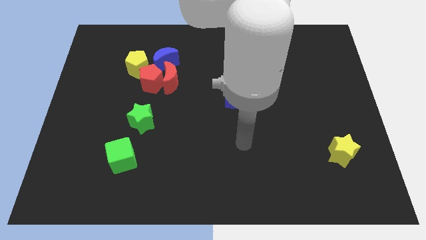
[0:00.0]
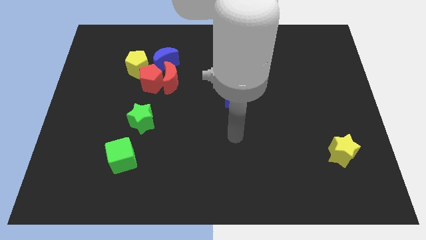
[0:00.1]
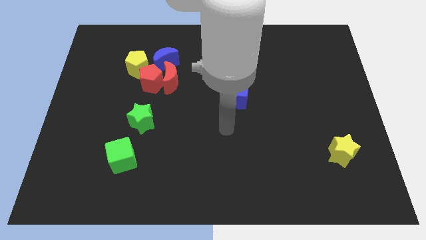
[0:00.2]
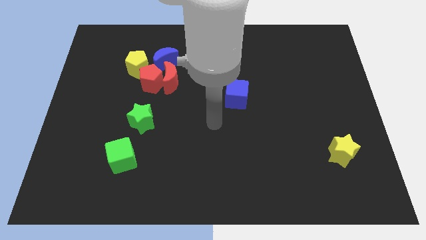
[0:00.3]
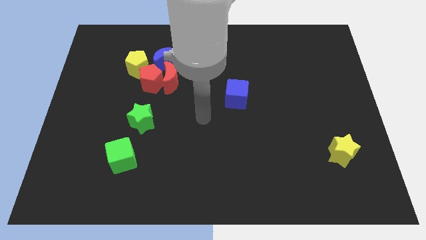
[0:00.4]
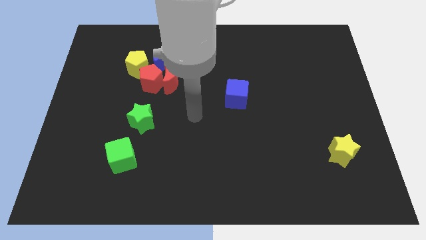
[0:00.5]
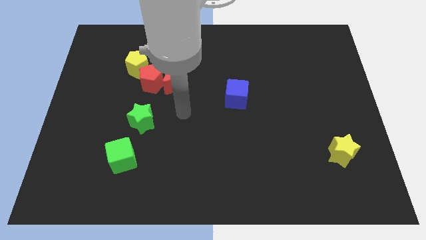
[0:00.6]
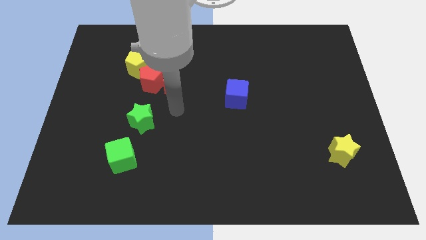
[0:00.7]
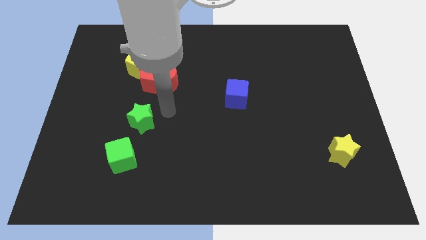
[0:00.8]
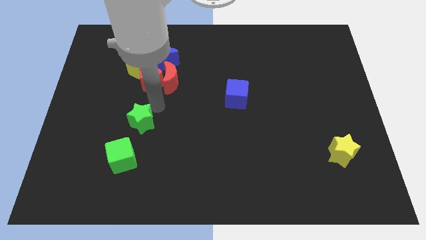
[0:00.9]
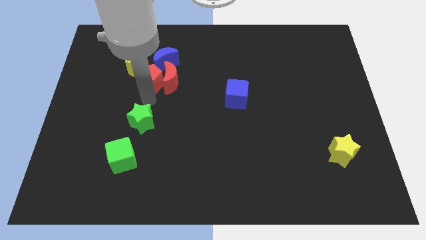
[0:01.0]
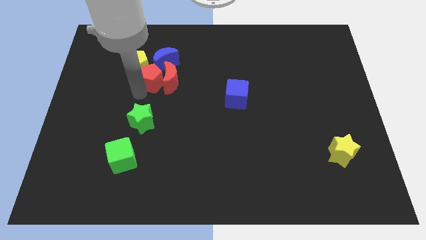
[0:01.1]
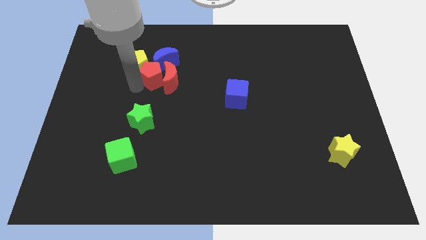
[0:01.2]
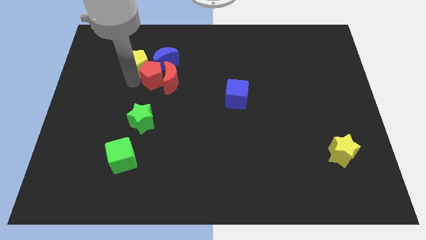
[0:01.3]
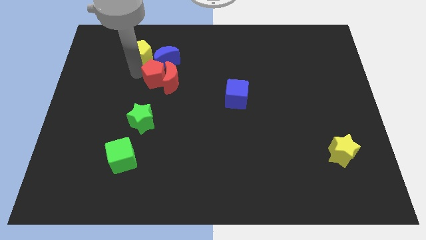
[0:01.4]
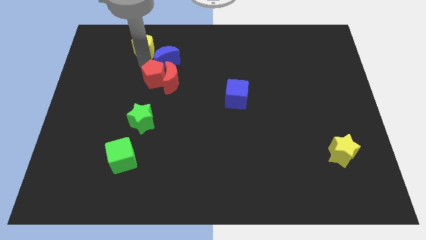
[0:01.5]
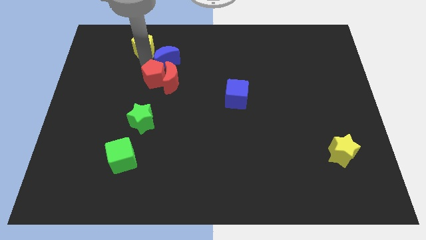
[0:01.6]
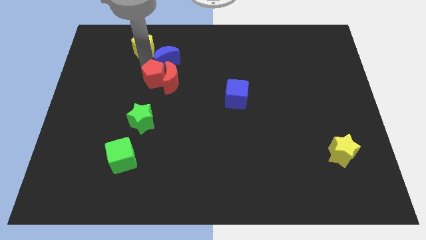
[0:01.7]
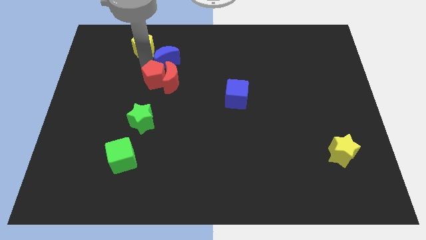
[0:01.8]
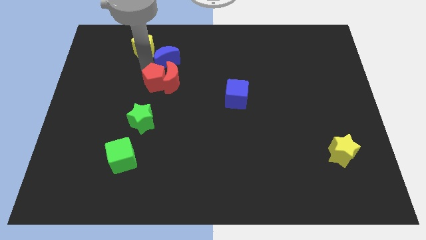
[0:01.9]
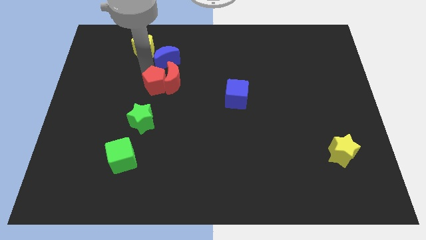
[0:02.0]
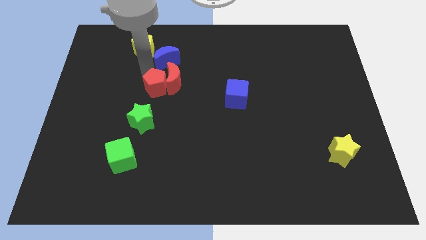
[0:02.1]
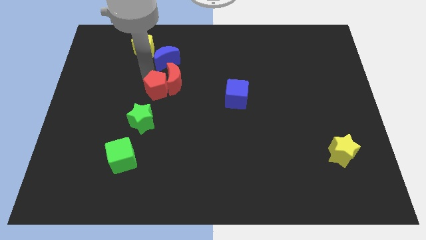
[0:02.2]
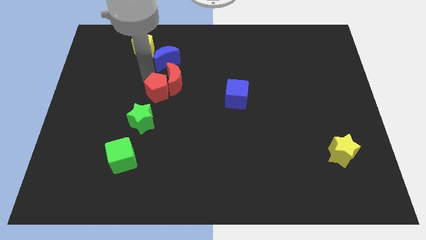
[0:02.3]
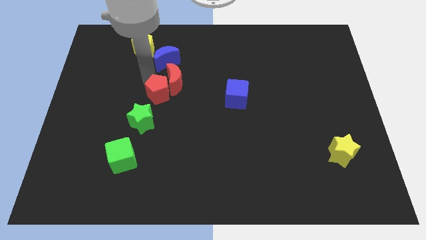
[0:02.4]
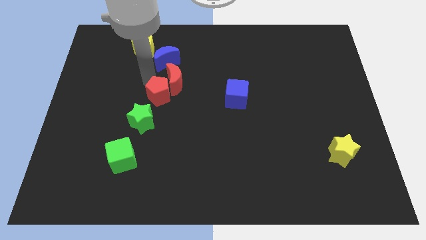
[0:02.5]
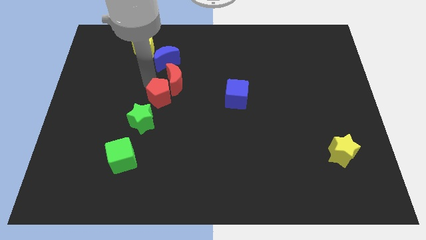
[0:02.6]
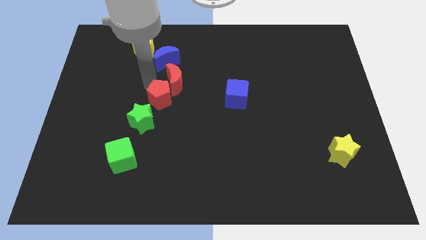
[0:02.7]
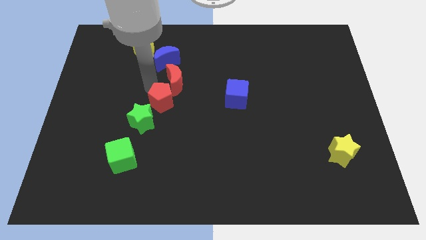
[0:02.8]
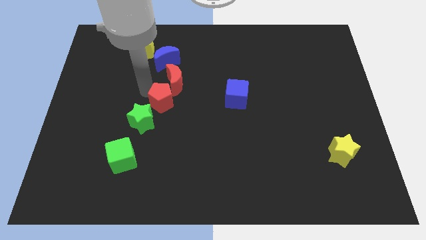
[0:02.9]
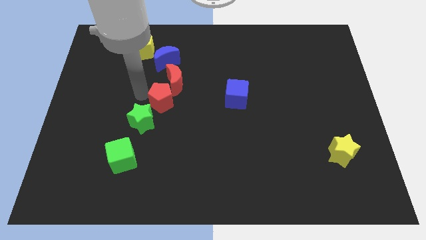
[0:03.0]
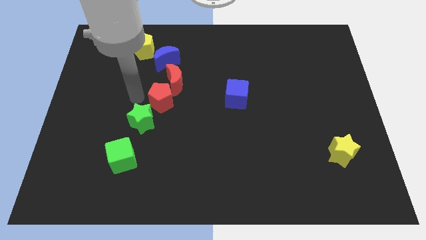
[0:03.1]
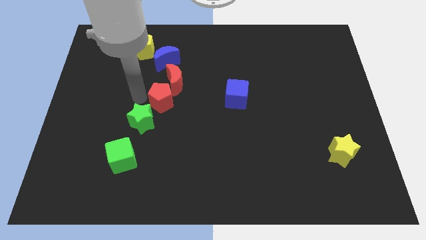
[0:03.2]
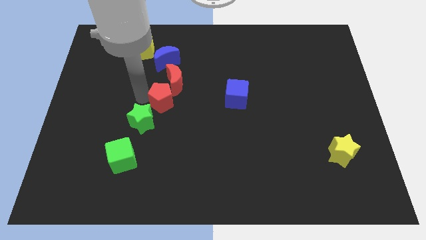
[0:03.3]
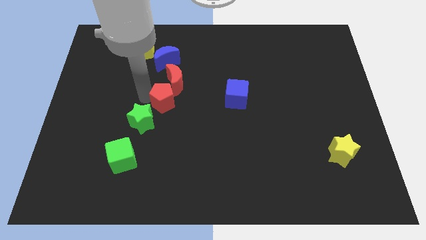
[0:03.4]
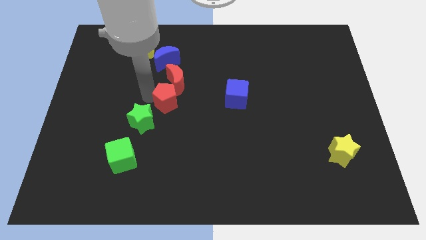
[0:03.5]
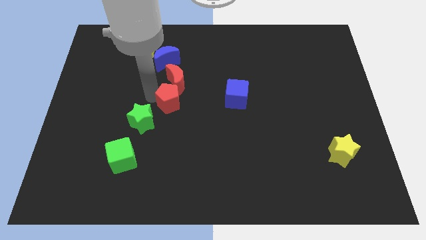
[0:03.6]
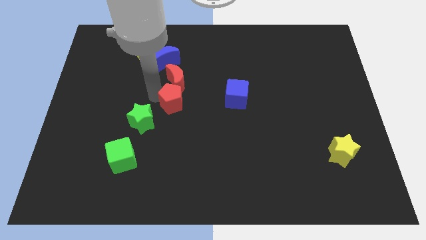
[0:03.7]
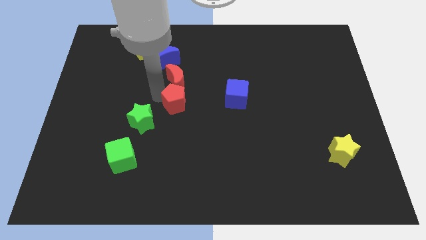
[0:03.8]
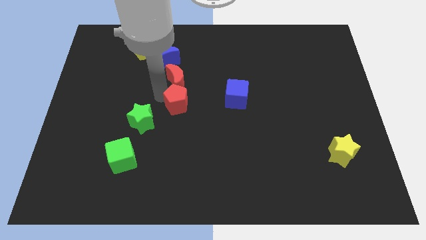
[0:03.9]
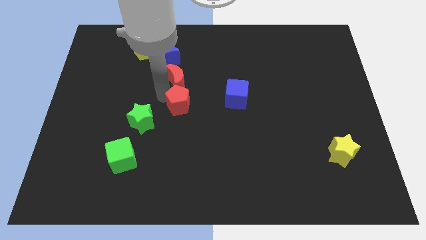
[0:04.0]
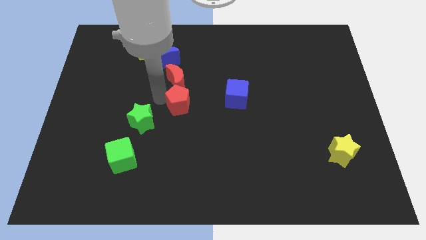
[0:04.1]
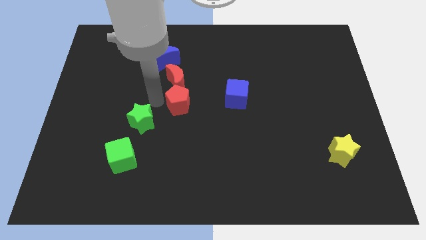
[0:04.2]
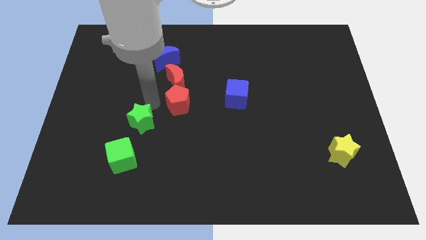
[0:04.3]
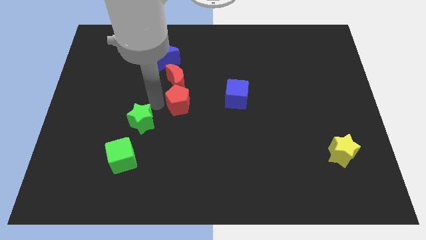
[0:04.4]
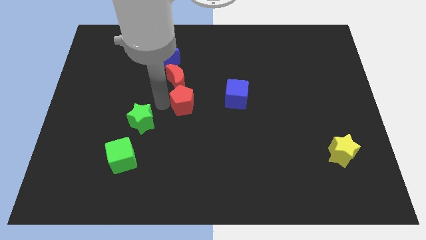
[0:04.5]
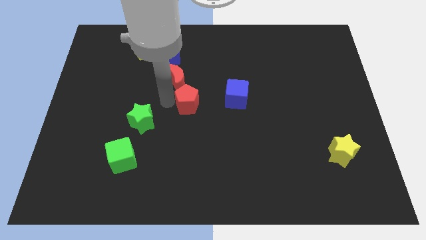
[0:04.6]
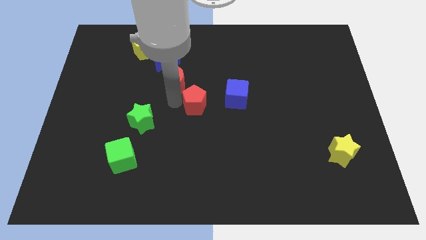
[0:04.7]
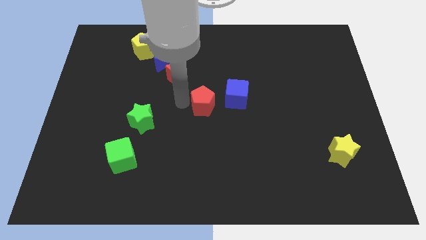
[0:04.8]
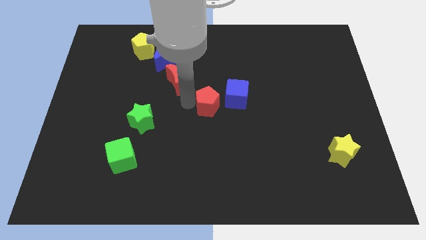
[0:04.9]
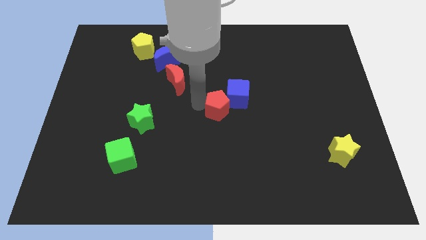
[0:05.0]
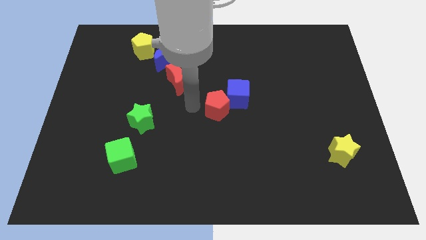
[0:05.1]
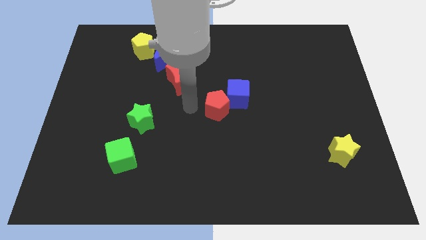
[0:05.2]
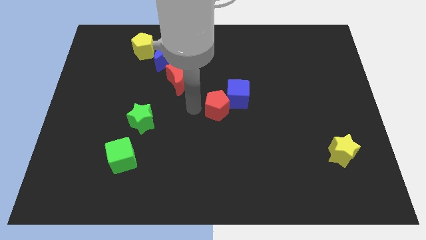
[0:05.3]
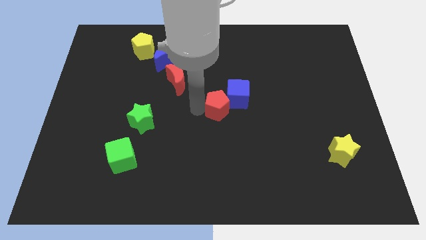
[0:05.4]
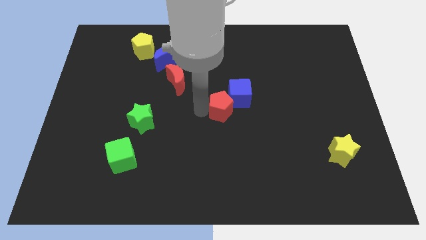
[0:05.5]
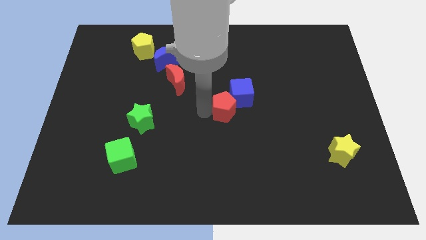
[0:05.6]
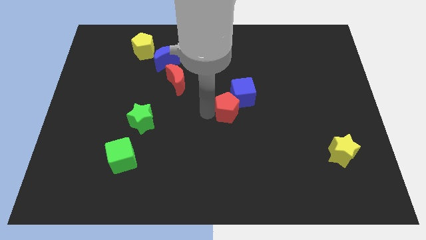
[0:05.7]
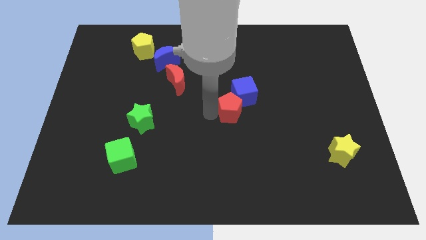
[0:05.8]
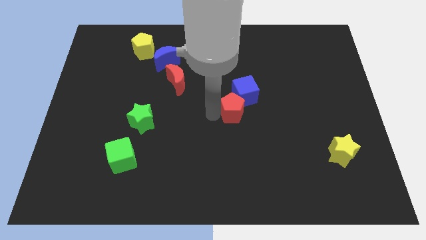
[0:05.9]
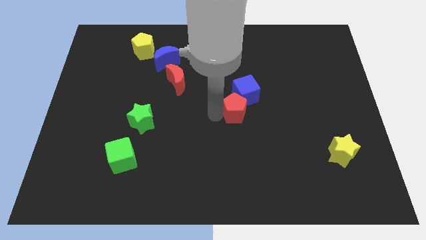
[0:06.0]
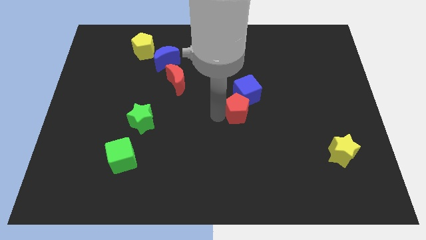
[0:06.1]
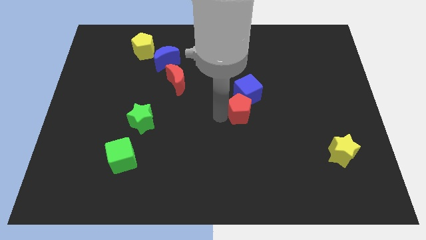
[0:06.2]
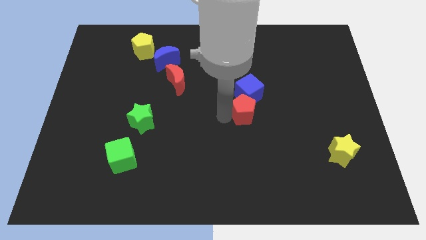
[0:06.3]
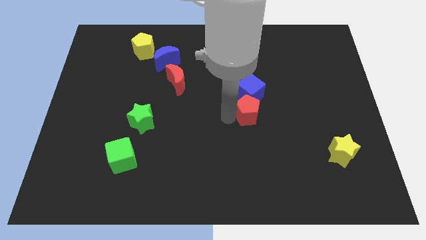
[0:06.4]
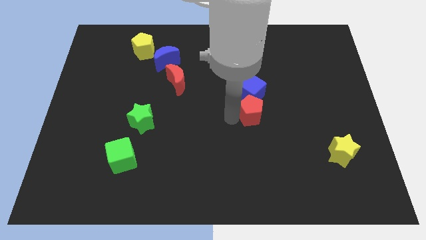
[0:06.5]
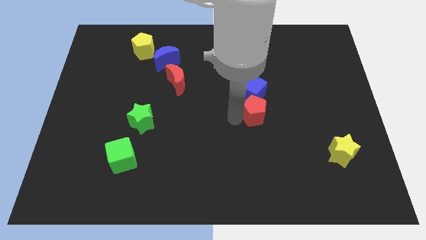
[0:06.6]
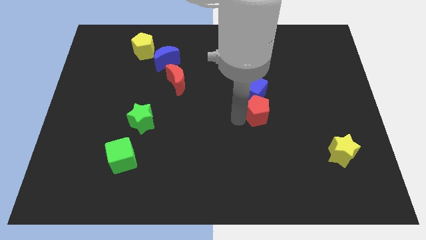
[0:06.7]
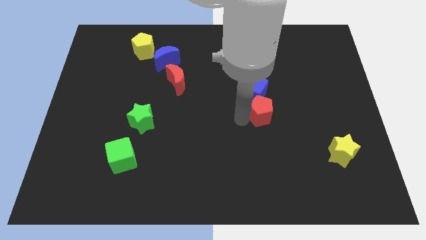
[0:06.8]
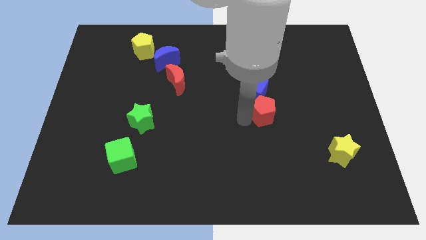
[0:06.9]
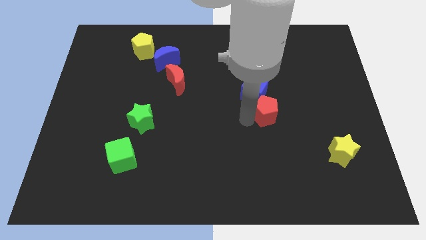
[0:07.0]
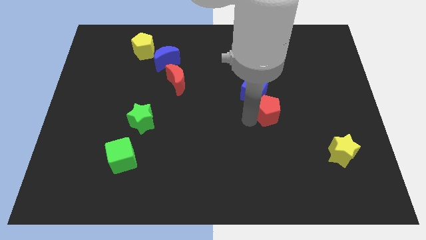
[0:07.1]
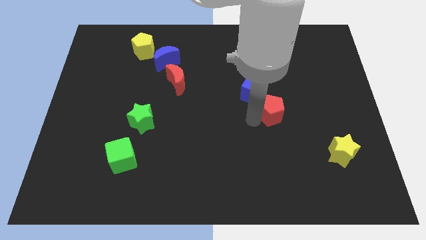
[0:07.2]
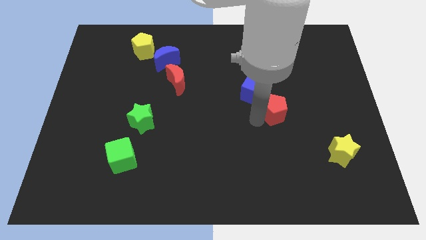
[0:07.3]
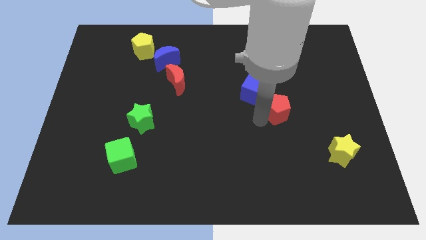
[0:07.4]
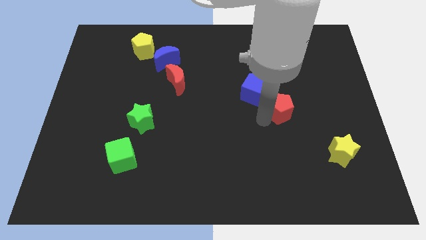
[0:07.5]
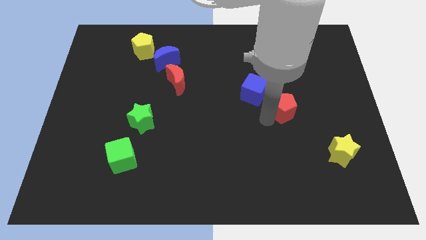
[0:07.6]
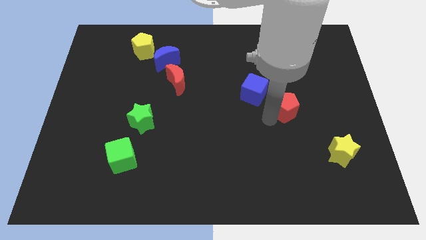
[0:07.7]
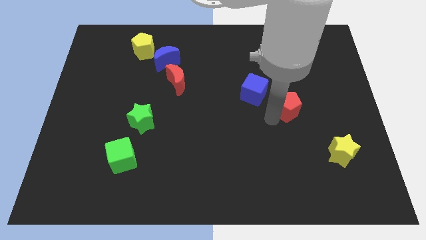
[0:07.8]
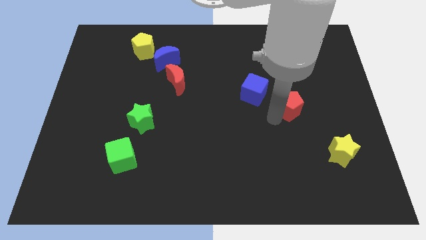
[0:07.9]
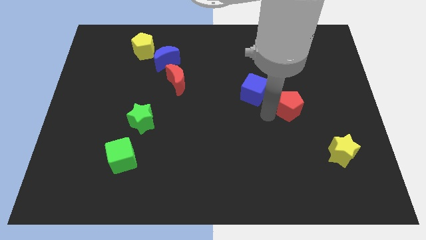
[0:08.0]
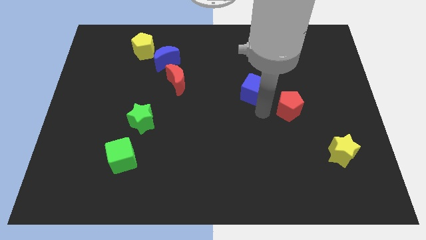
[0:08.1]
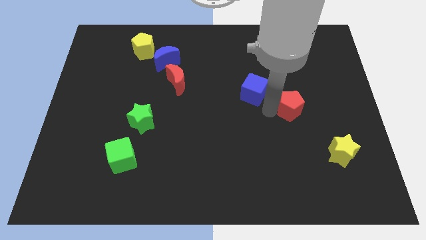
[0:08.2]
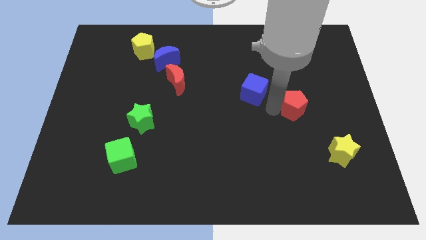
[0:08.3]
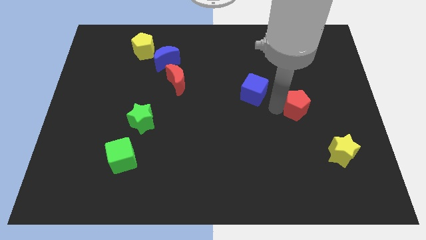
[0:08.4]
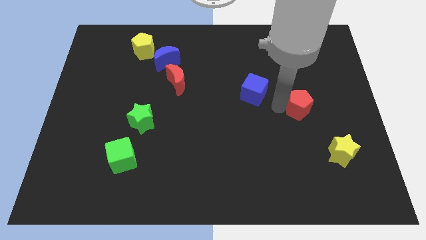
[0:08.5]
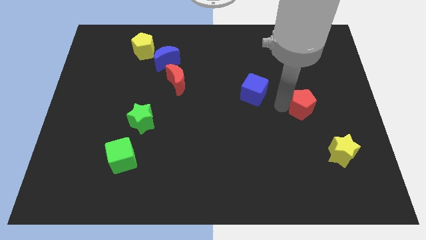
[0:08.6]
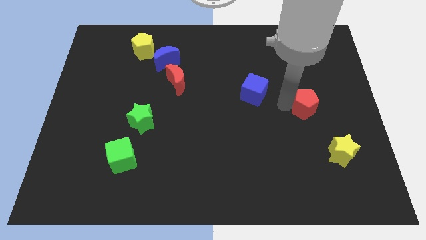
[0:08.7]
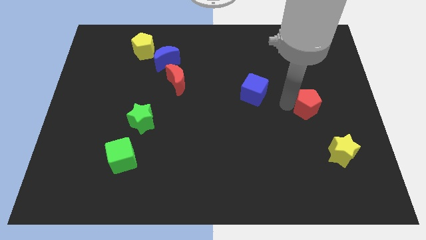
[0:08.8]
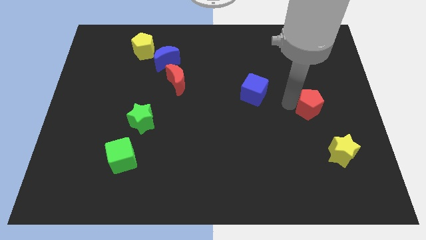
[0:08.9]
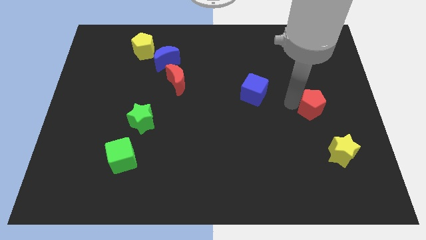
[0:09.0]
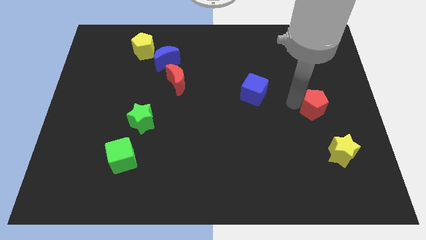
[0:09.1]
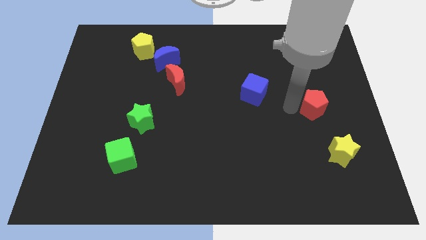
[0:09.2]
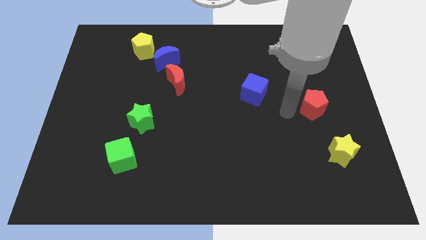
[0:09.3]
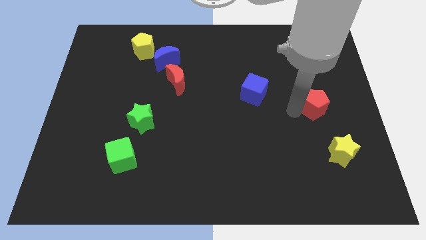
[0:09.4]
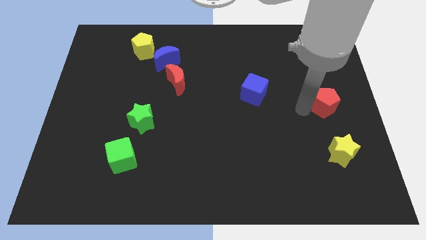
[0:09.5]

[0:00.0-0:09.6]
push the red pentagon to the right side of the board
